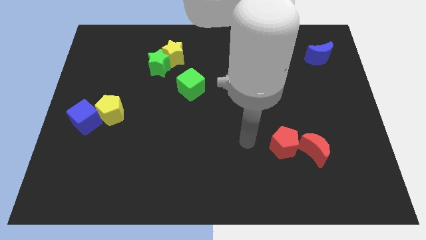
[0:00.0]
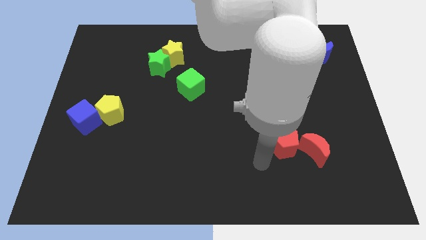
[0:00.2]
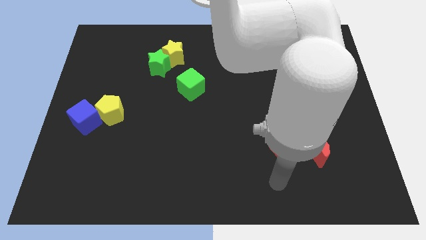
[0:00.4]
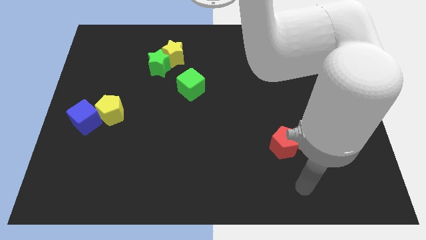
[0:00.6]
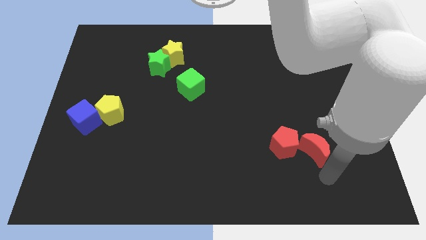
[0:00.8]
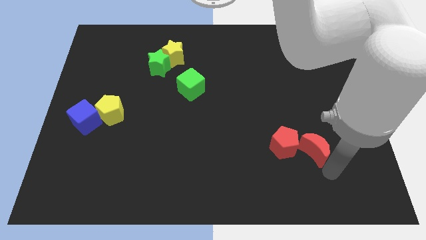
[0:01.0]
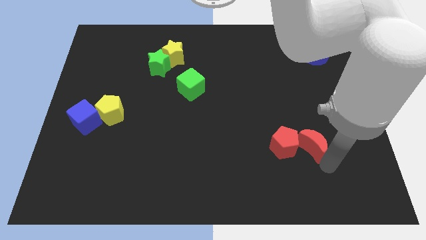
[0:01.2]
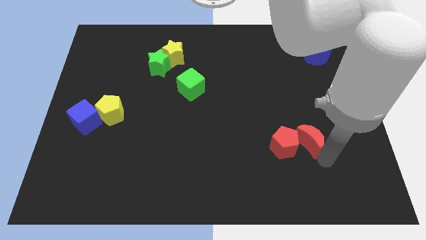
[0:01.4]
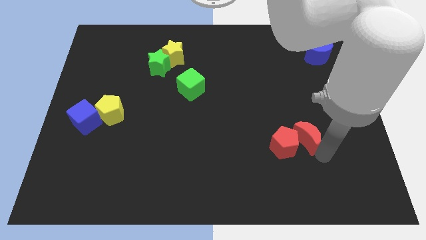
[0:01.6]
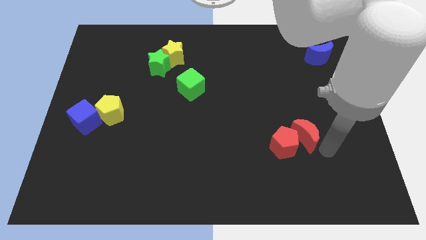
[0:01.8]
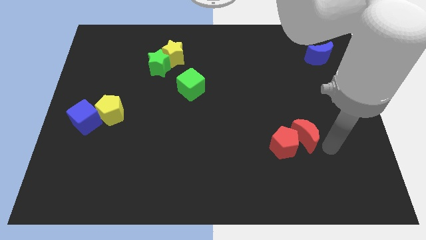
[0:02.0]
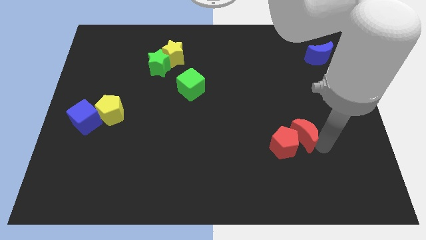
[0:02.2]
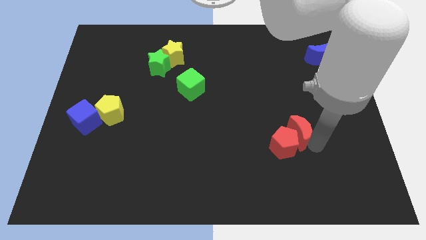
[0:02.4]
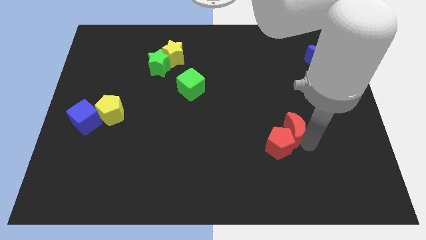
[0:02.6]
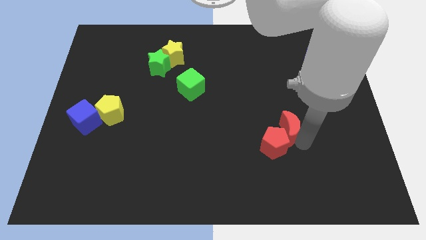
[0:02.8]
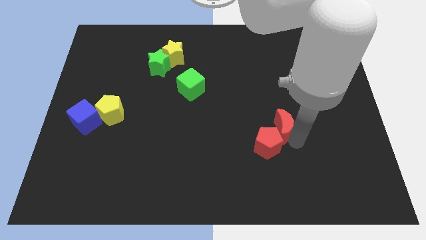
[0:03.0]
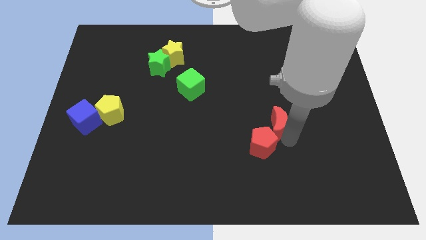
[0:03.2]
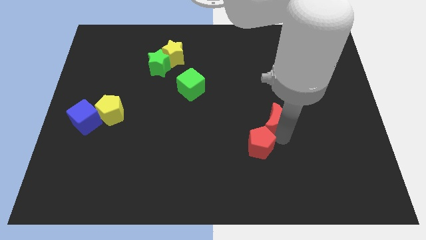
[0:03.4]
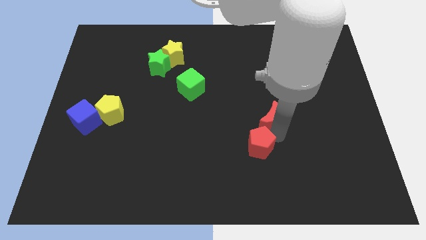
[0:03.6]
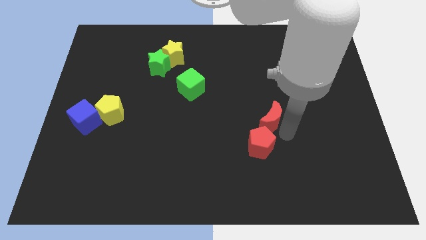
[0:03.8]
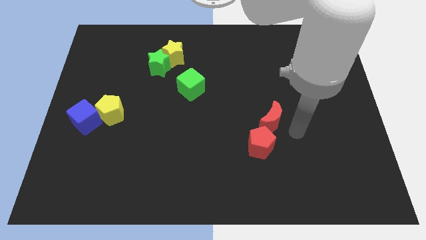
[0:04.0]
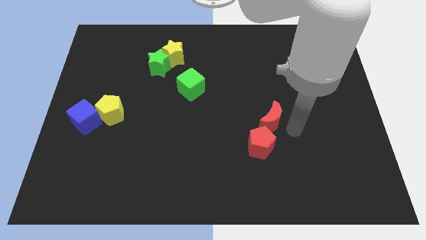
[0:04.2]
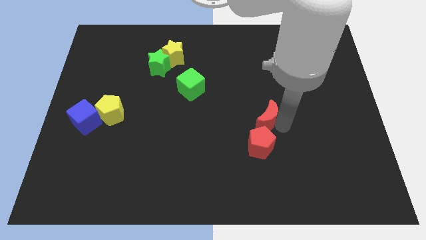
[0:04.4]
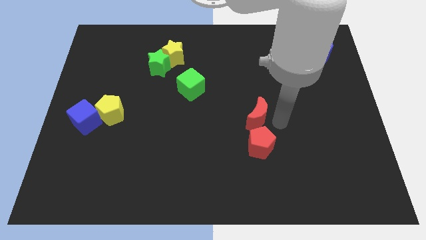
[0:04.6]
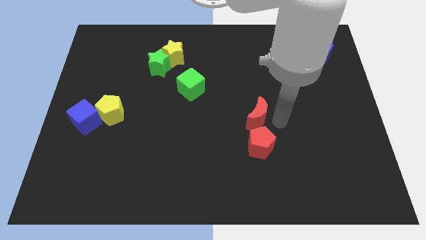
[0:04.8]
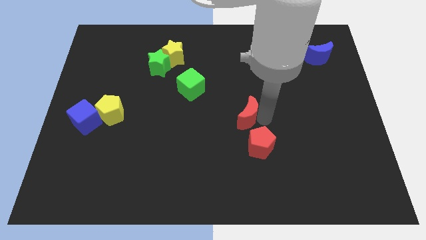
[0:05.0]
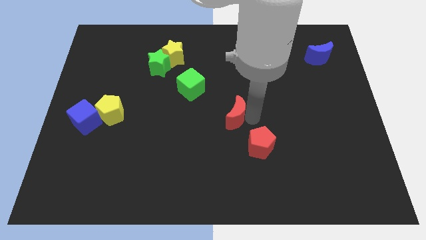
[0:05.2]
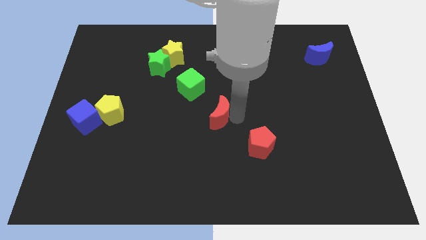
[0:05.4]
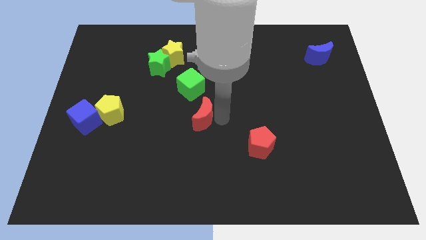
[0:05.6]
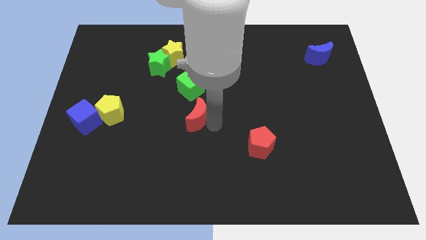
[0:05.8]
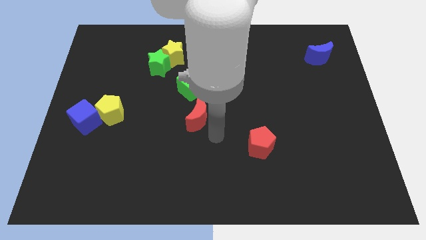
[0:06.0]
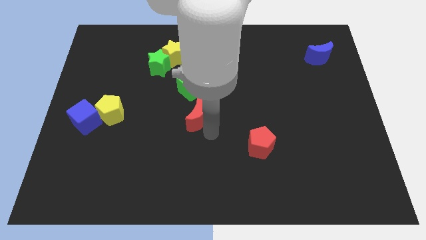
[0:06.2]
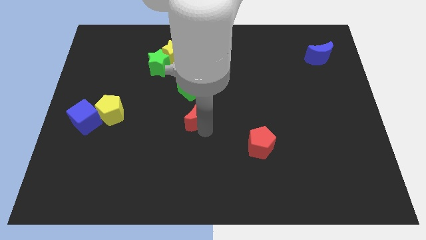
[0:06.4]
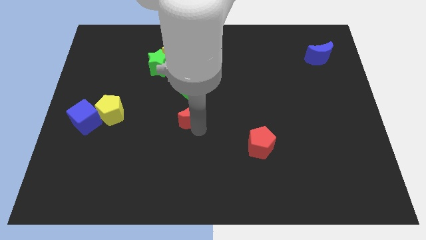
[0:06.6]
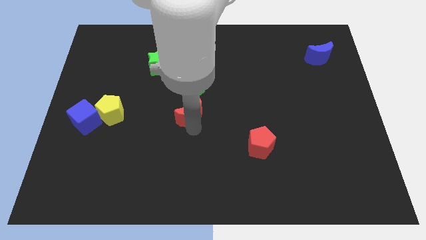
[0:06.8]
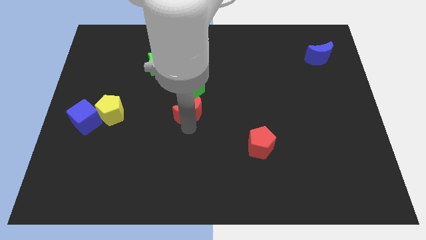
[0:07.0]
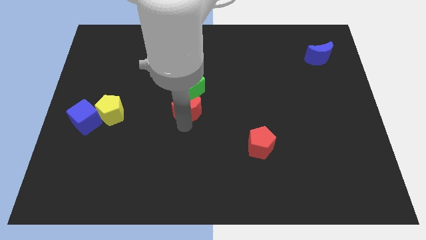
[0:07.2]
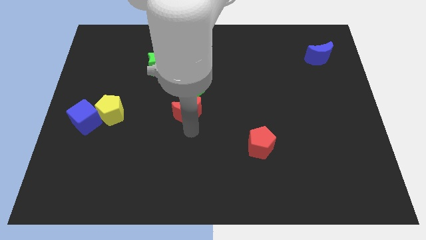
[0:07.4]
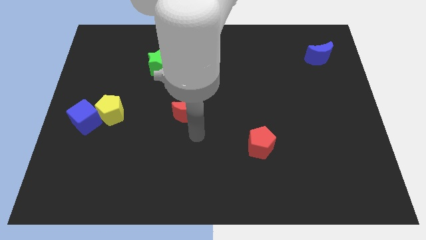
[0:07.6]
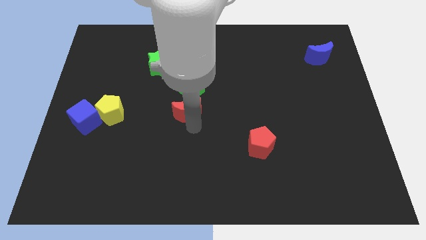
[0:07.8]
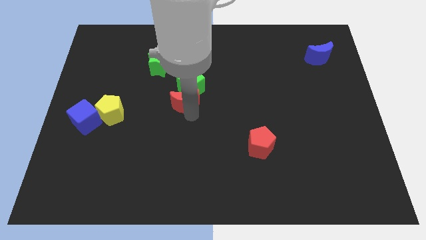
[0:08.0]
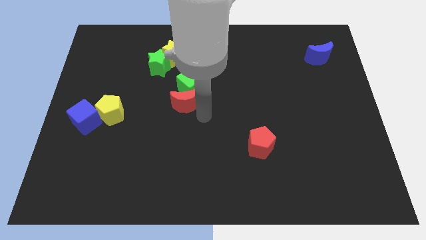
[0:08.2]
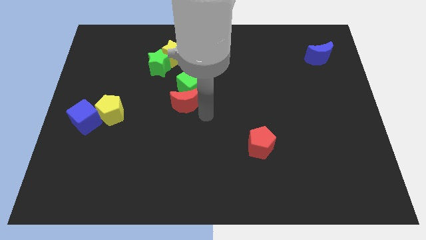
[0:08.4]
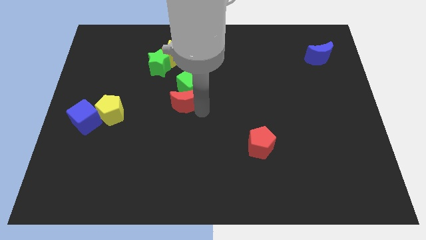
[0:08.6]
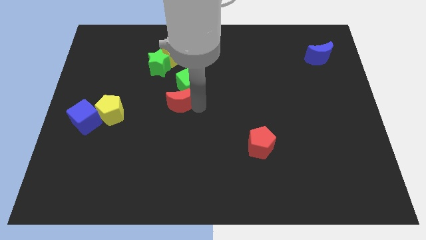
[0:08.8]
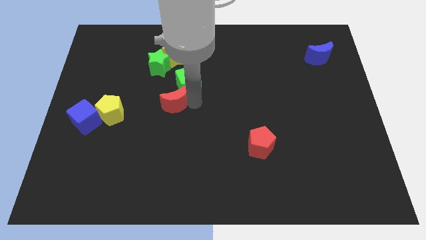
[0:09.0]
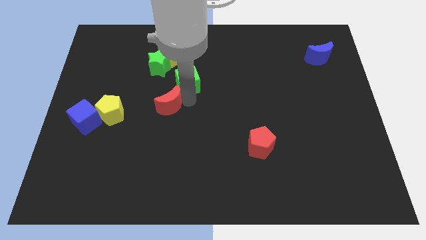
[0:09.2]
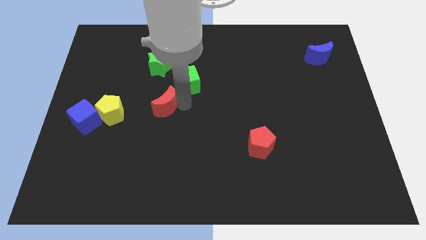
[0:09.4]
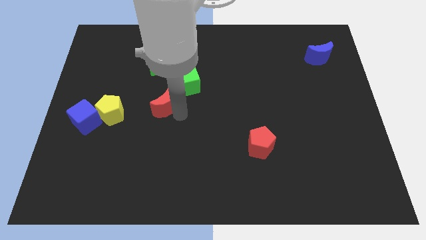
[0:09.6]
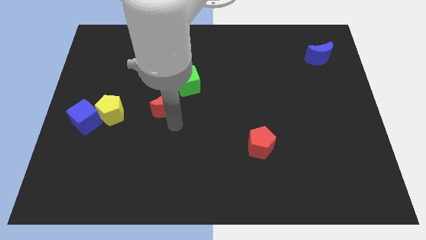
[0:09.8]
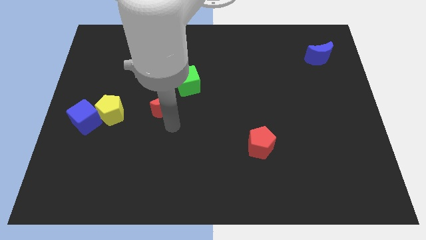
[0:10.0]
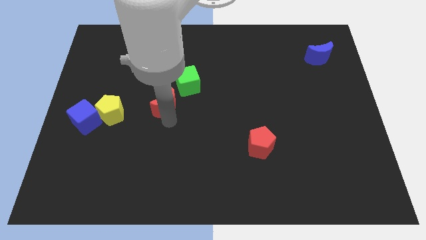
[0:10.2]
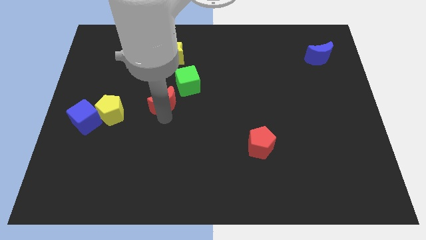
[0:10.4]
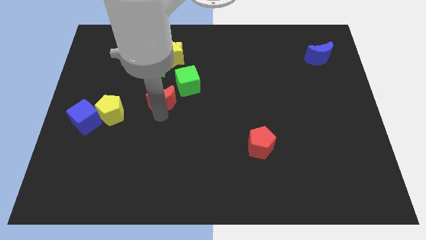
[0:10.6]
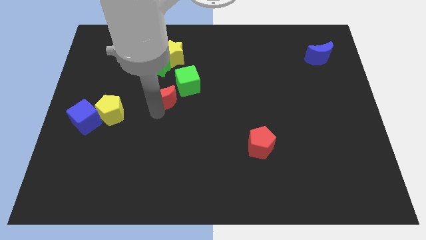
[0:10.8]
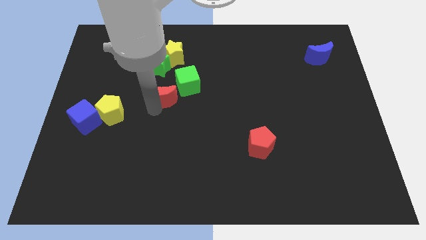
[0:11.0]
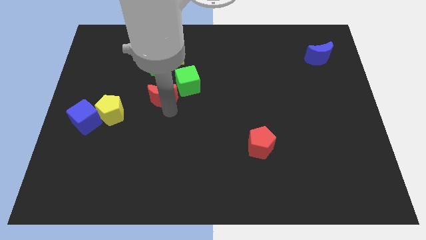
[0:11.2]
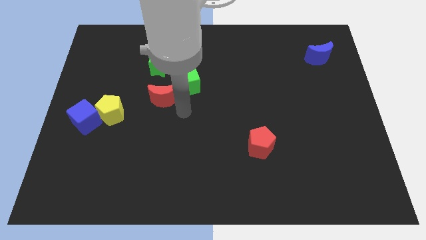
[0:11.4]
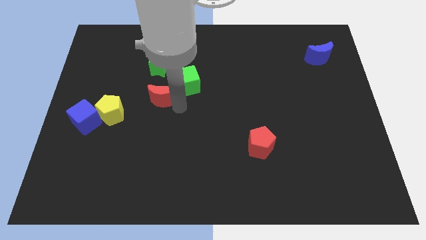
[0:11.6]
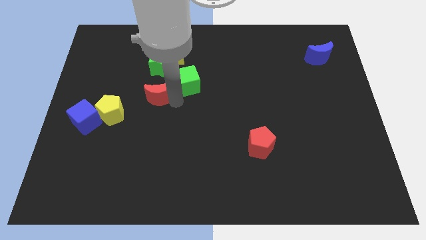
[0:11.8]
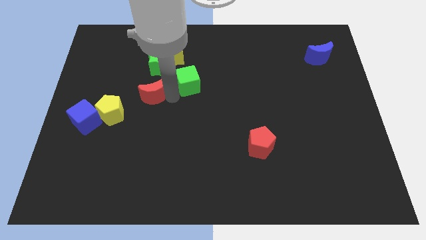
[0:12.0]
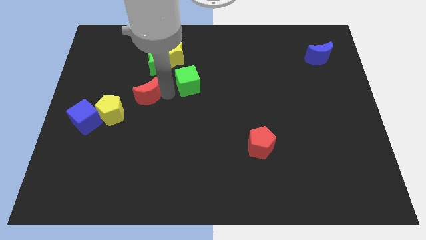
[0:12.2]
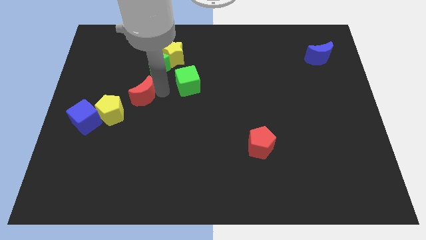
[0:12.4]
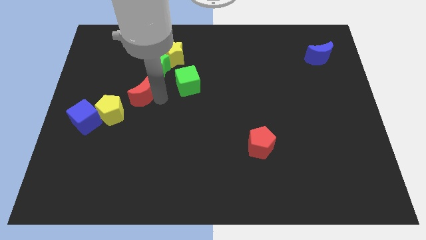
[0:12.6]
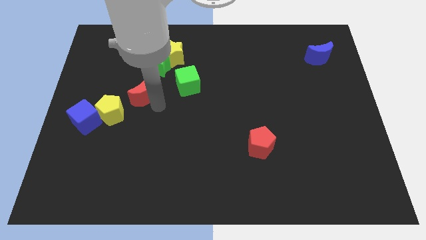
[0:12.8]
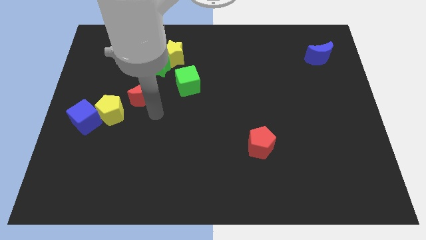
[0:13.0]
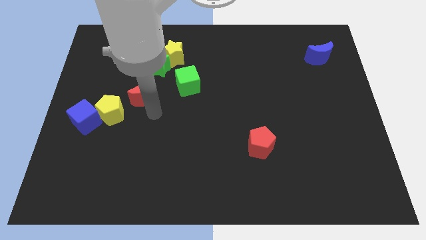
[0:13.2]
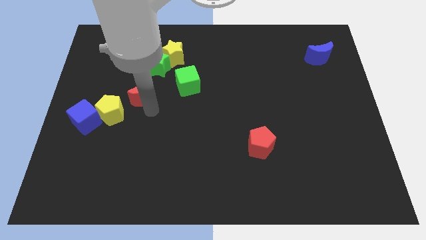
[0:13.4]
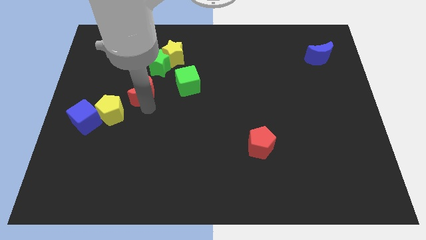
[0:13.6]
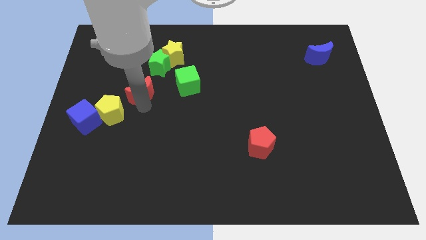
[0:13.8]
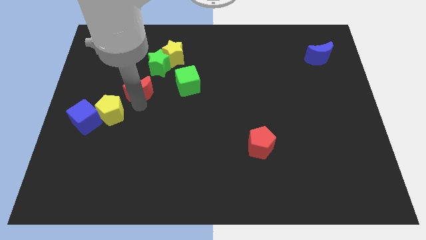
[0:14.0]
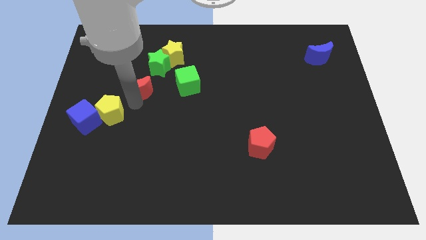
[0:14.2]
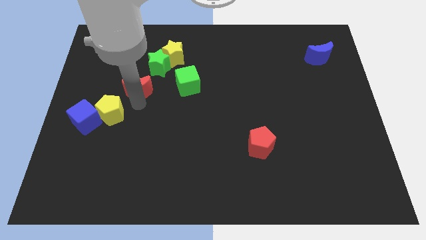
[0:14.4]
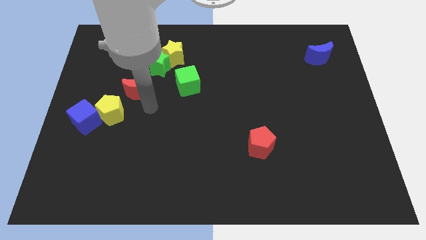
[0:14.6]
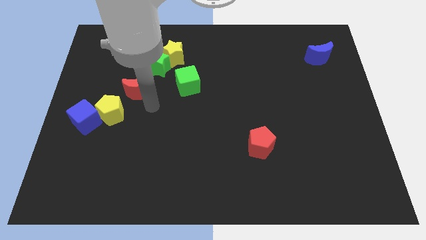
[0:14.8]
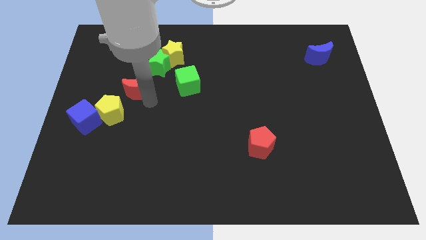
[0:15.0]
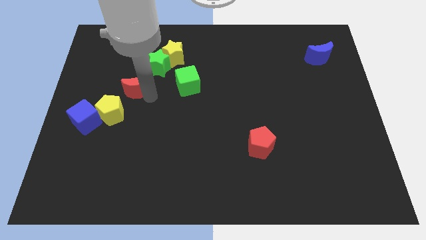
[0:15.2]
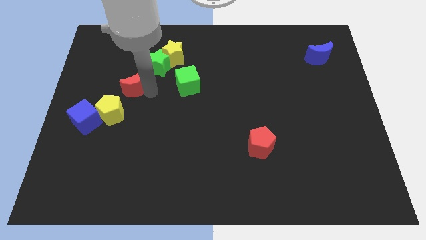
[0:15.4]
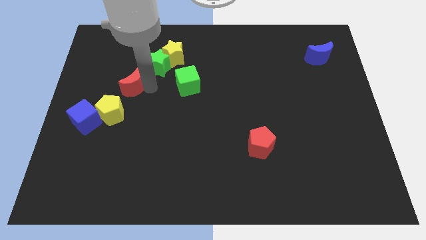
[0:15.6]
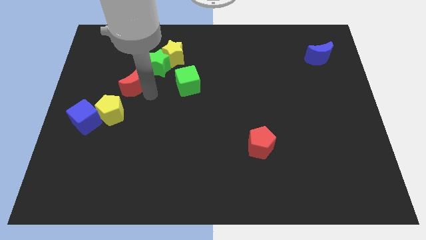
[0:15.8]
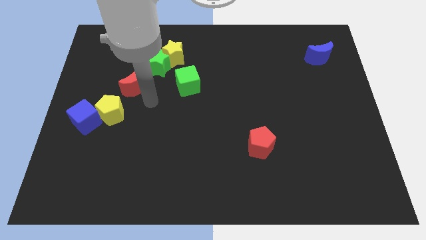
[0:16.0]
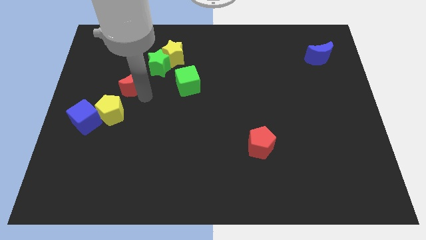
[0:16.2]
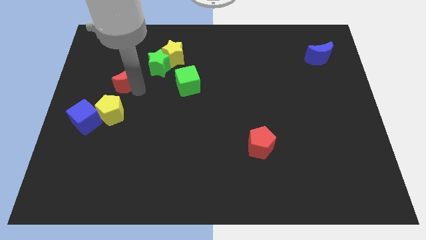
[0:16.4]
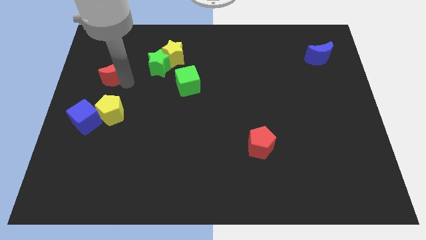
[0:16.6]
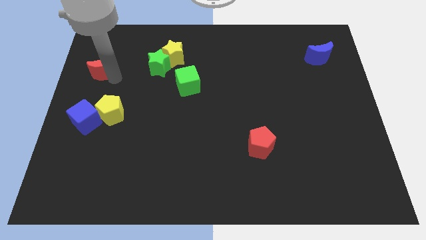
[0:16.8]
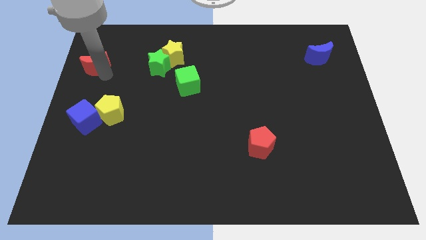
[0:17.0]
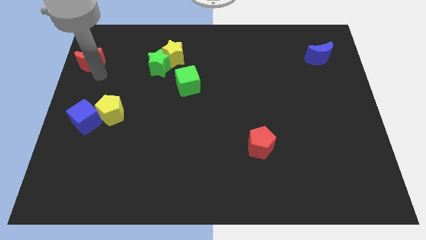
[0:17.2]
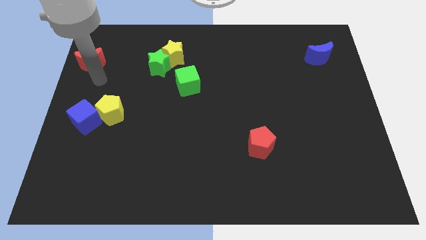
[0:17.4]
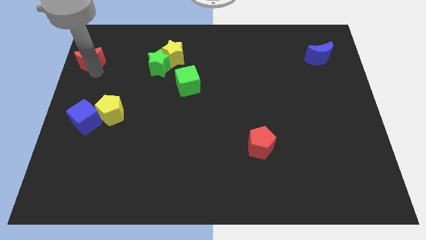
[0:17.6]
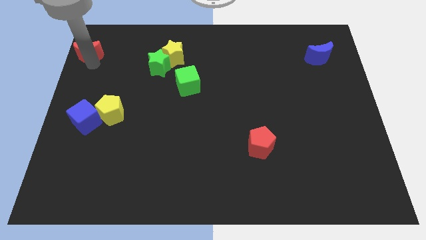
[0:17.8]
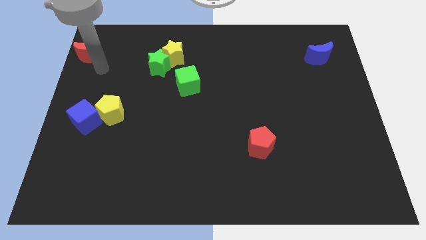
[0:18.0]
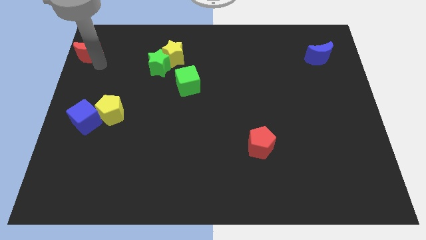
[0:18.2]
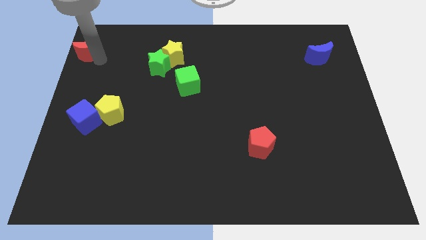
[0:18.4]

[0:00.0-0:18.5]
put the red moon to the top left
